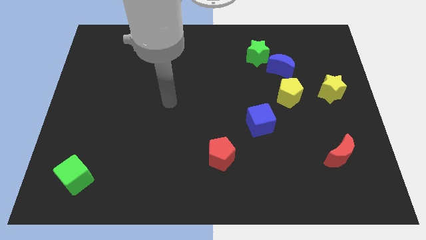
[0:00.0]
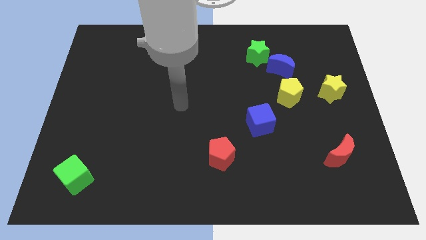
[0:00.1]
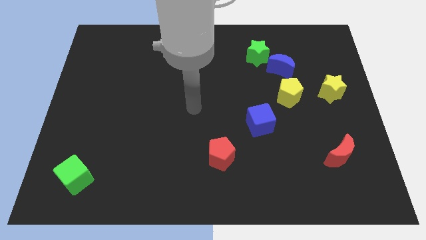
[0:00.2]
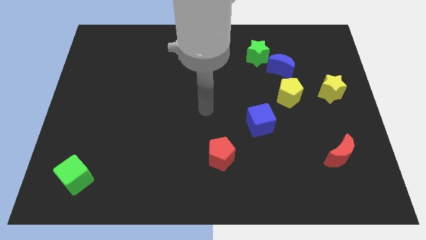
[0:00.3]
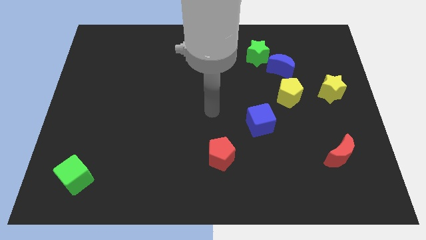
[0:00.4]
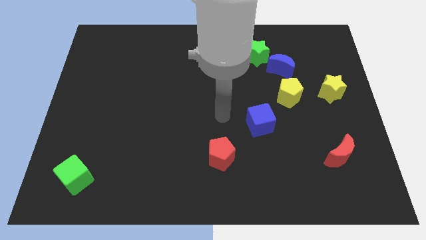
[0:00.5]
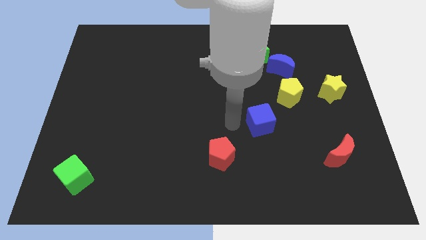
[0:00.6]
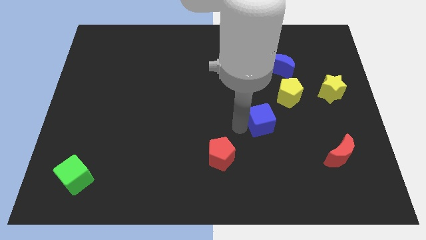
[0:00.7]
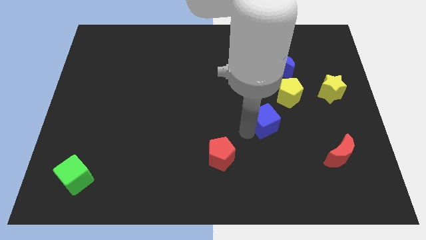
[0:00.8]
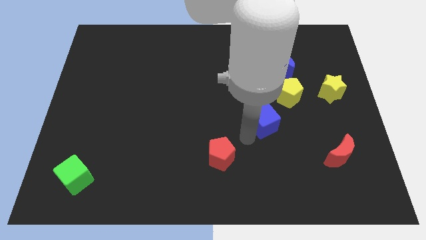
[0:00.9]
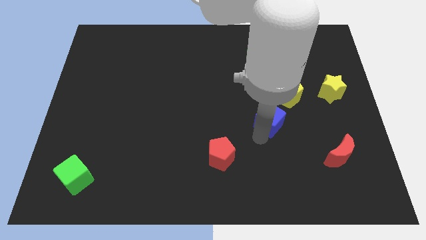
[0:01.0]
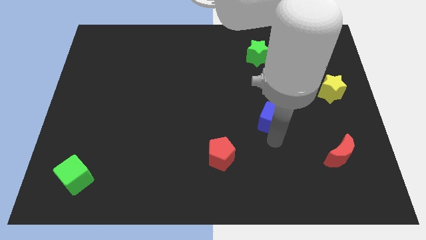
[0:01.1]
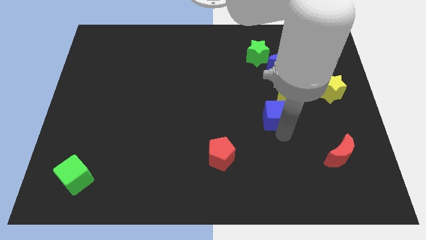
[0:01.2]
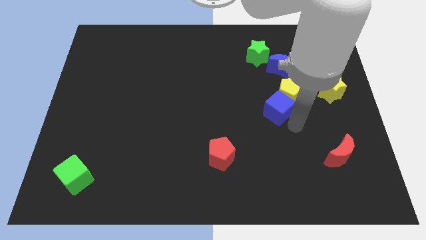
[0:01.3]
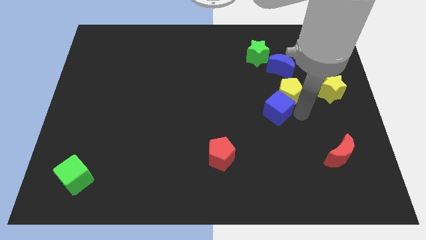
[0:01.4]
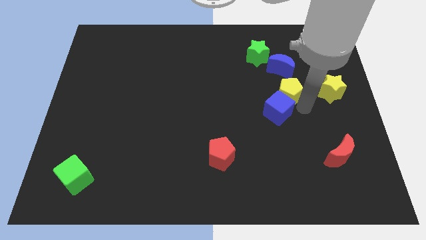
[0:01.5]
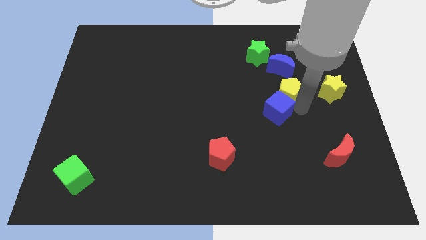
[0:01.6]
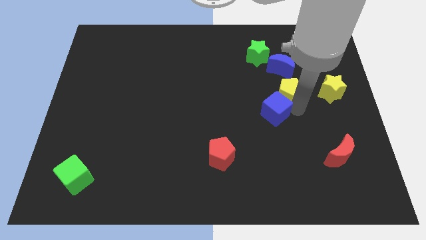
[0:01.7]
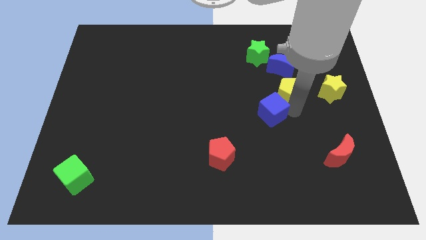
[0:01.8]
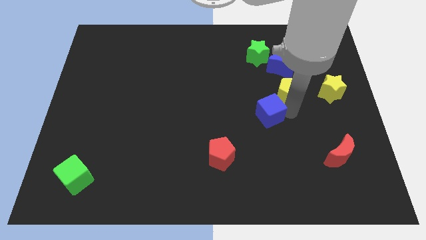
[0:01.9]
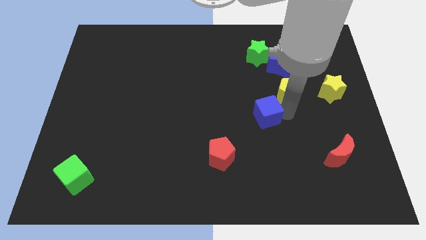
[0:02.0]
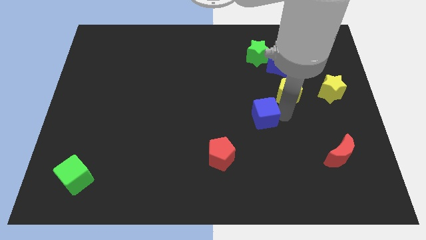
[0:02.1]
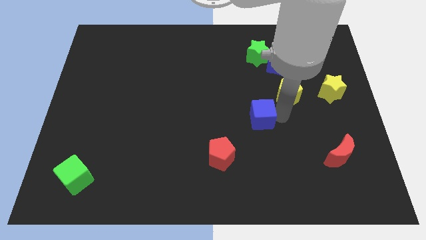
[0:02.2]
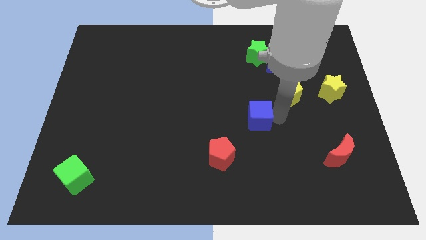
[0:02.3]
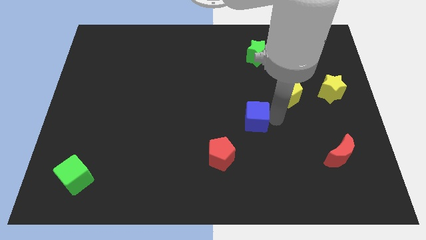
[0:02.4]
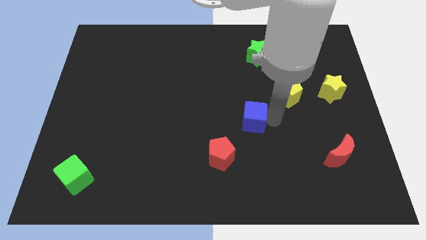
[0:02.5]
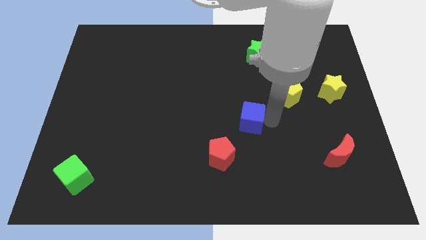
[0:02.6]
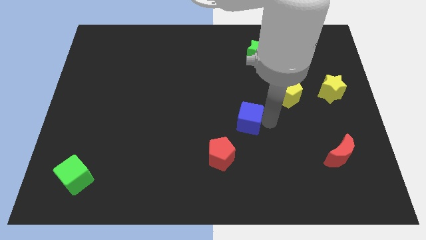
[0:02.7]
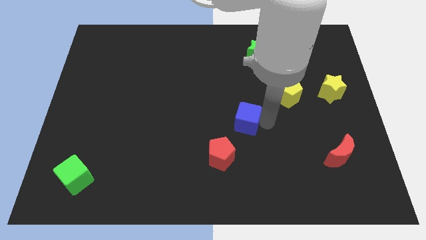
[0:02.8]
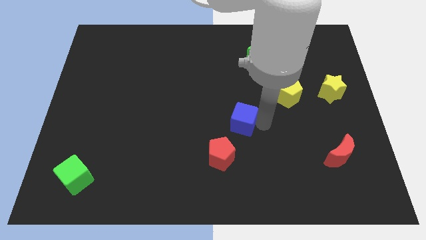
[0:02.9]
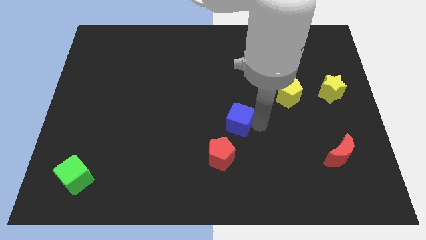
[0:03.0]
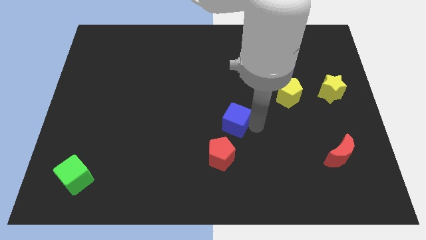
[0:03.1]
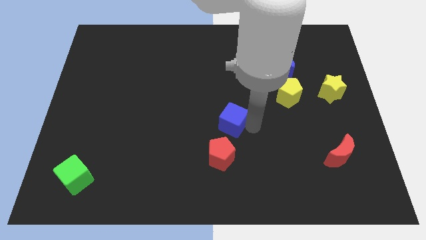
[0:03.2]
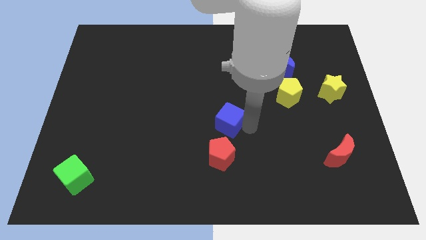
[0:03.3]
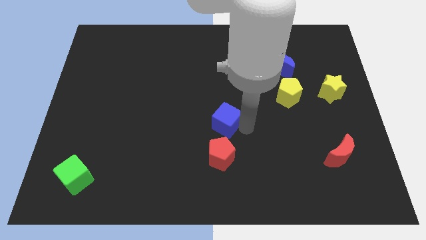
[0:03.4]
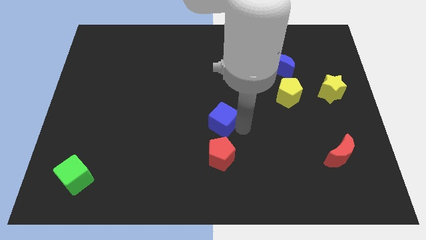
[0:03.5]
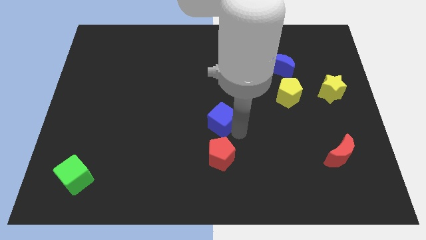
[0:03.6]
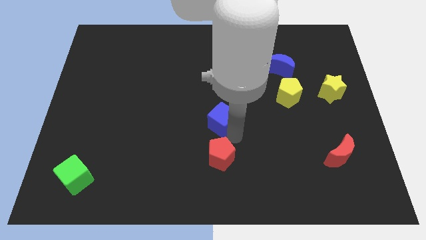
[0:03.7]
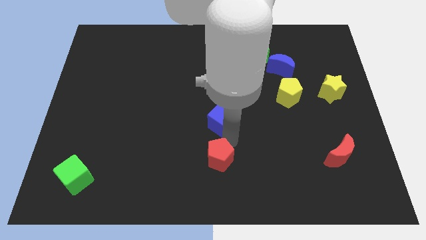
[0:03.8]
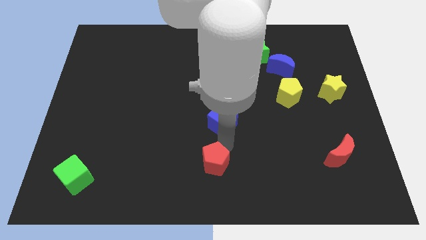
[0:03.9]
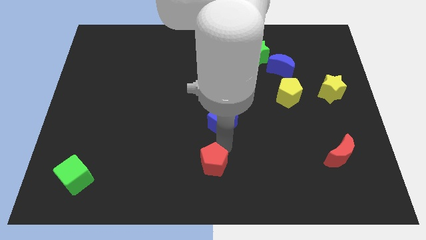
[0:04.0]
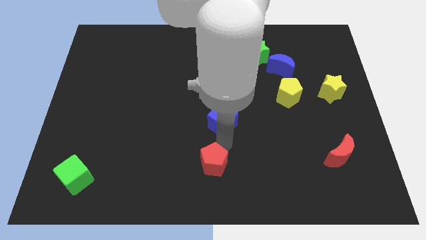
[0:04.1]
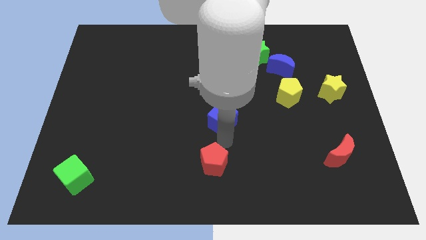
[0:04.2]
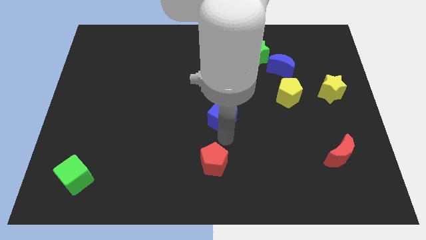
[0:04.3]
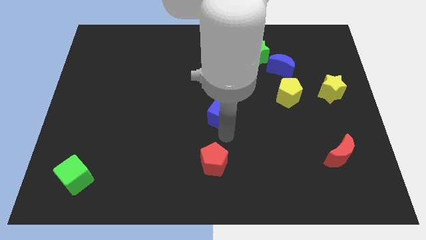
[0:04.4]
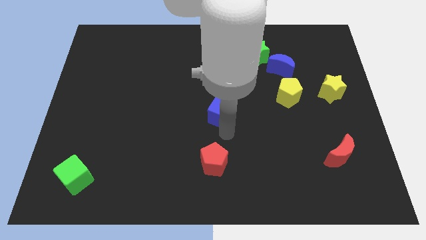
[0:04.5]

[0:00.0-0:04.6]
slide the blue cube a little diagonally up and to the left

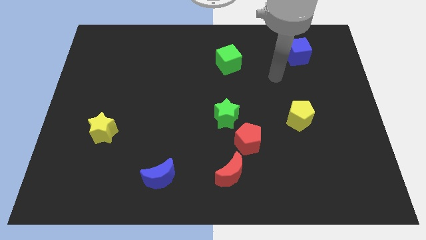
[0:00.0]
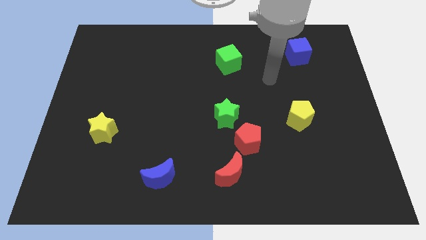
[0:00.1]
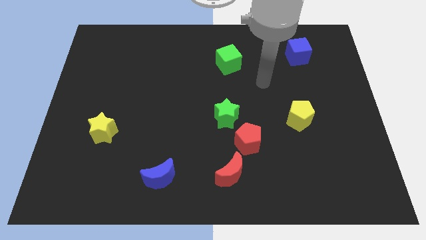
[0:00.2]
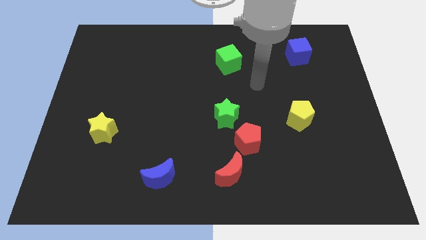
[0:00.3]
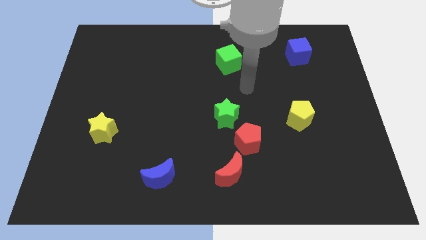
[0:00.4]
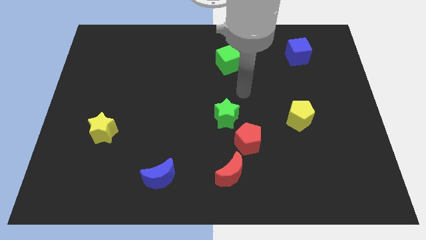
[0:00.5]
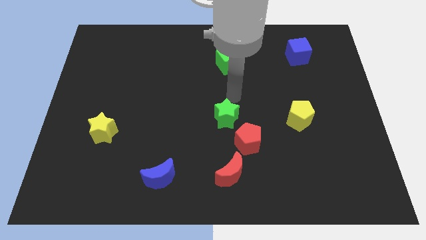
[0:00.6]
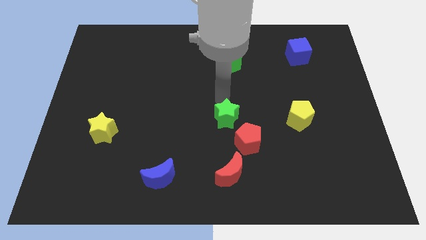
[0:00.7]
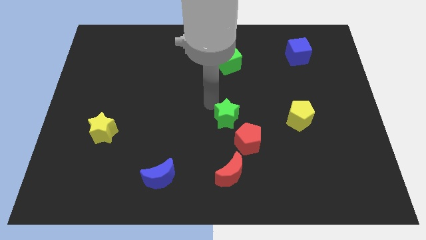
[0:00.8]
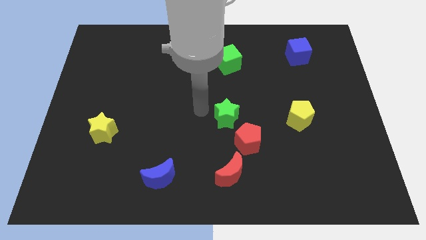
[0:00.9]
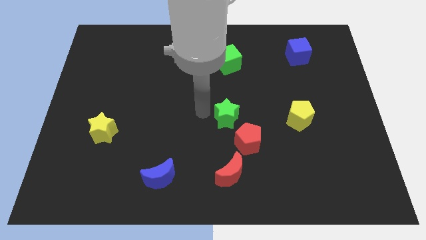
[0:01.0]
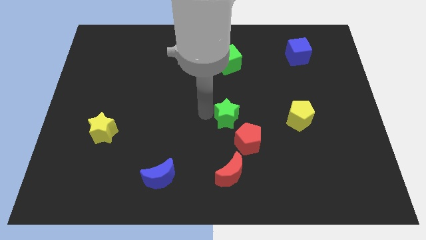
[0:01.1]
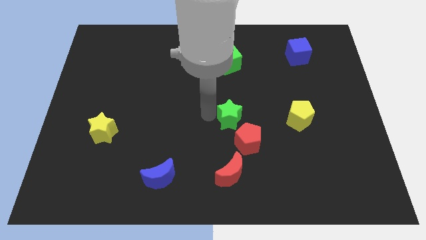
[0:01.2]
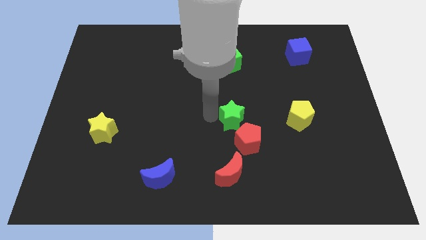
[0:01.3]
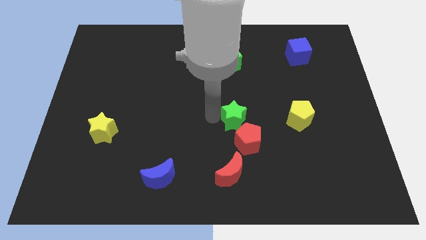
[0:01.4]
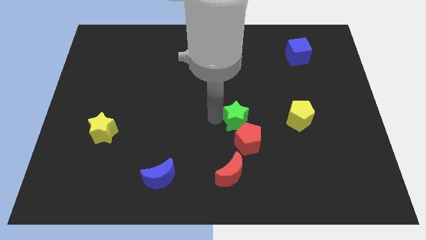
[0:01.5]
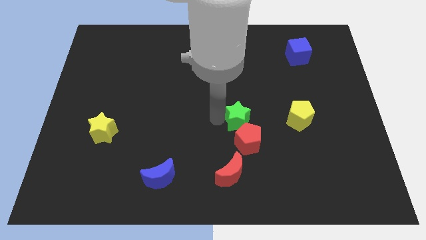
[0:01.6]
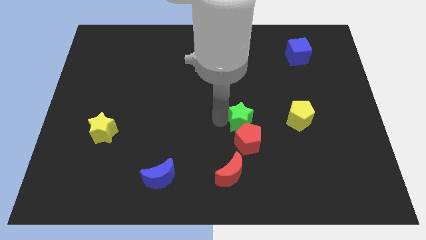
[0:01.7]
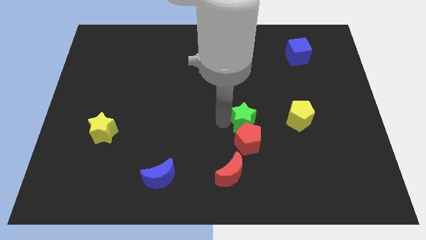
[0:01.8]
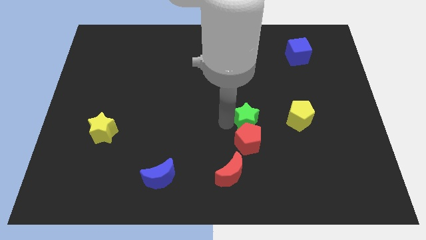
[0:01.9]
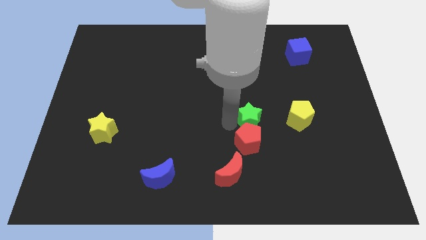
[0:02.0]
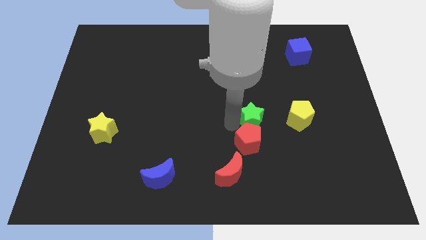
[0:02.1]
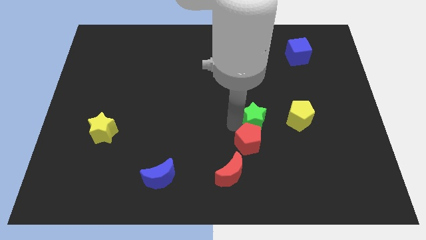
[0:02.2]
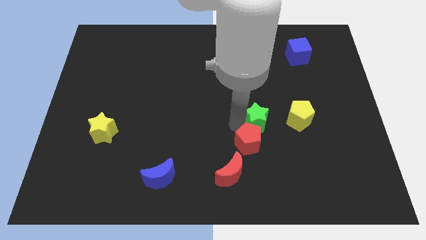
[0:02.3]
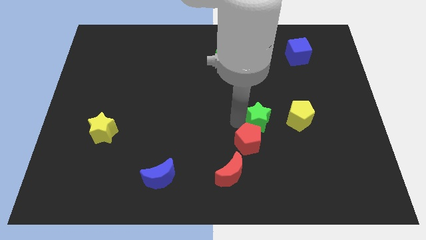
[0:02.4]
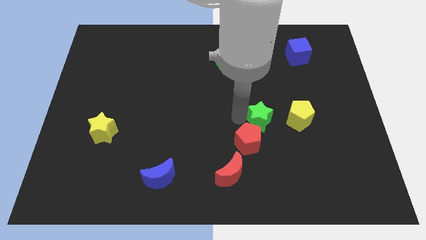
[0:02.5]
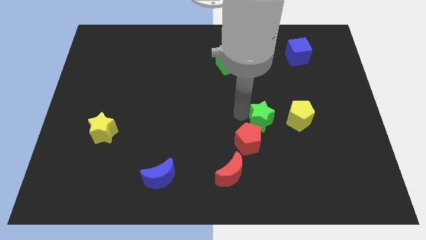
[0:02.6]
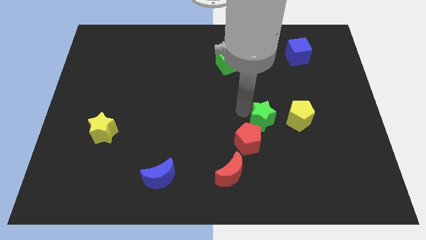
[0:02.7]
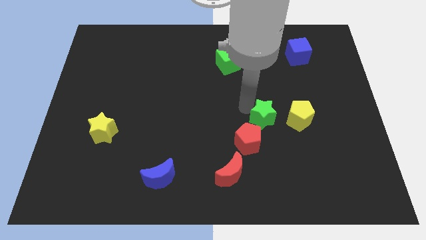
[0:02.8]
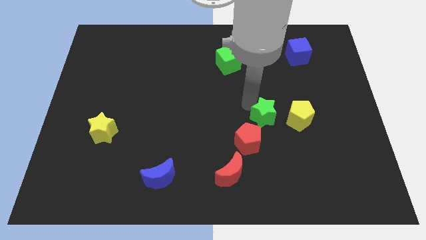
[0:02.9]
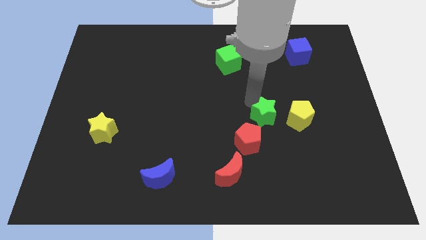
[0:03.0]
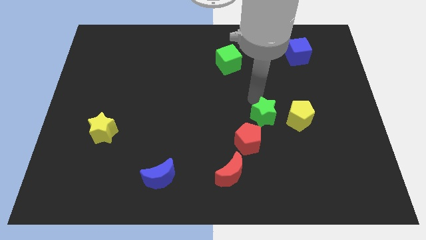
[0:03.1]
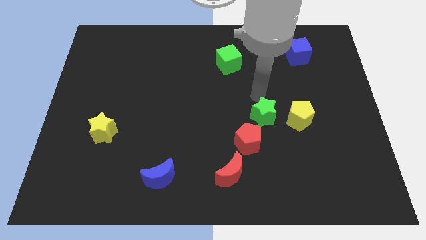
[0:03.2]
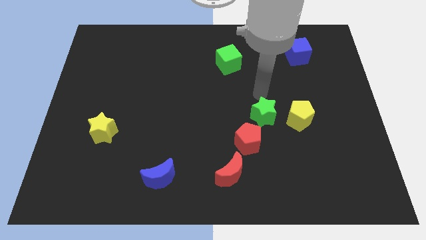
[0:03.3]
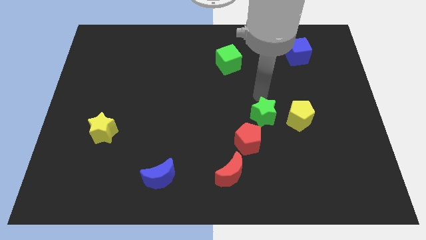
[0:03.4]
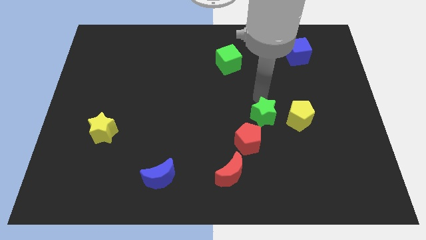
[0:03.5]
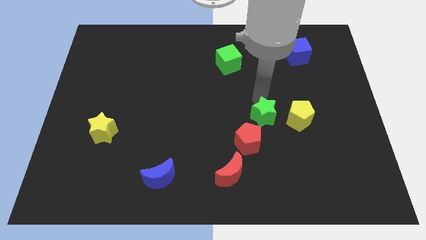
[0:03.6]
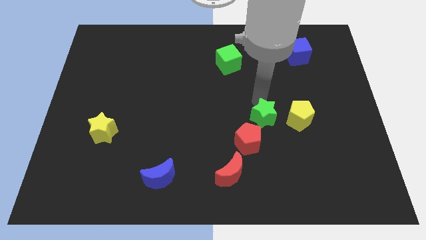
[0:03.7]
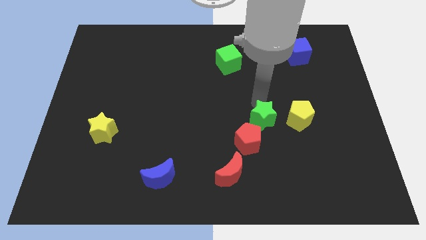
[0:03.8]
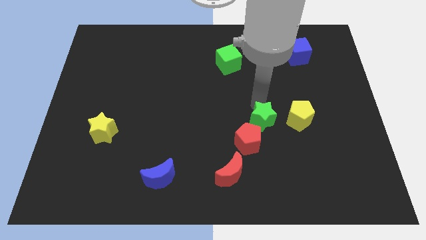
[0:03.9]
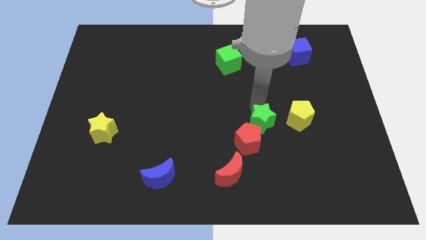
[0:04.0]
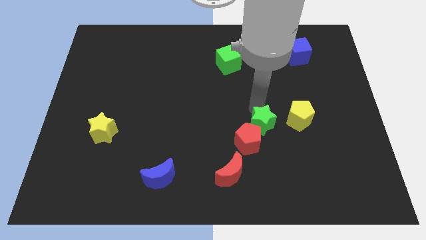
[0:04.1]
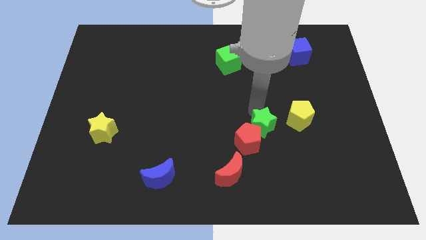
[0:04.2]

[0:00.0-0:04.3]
slide the green star diagonally down and to the right slightly
